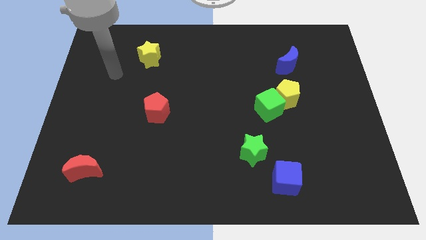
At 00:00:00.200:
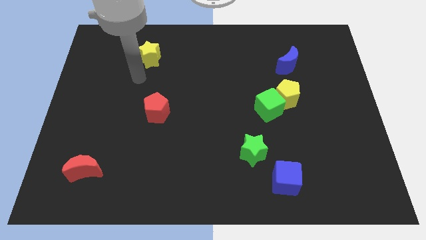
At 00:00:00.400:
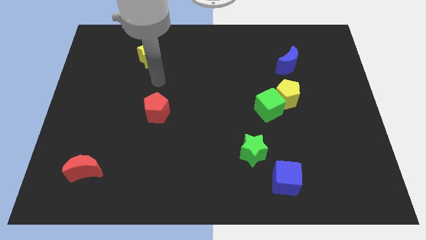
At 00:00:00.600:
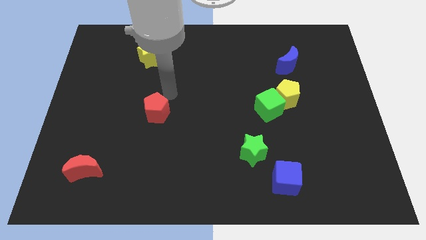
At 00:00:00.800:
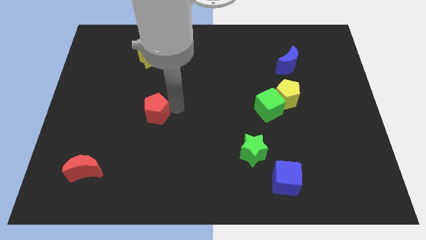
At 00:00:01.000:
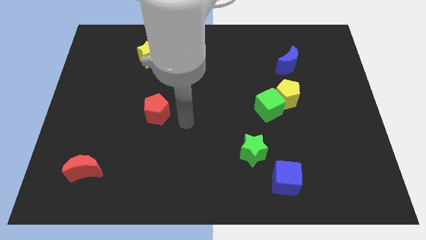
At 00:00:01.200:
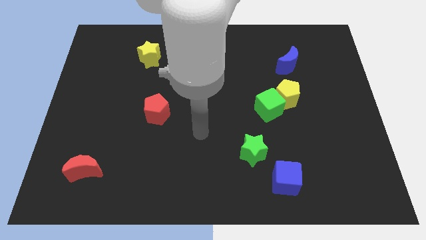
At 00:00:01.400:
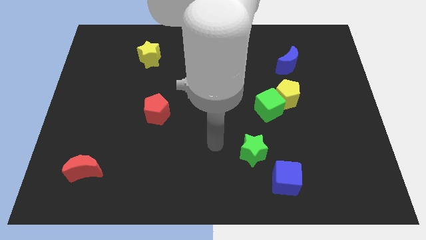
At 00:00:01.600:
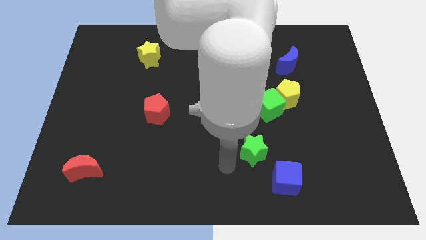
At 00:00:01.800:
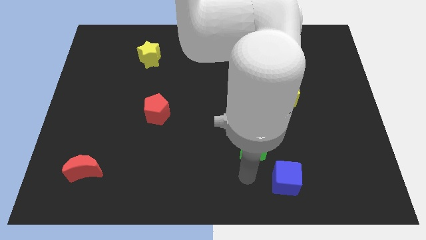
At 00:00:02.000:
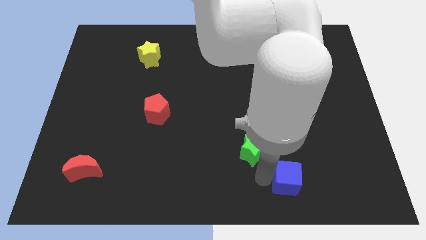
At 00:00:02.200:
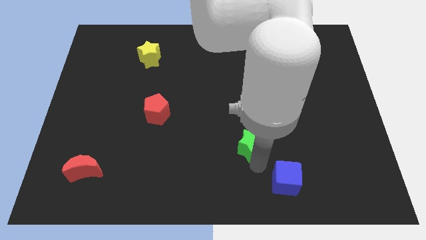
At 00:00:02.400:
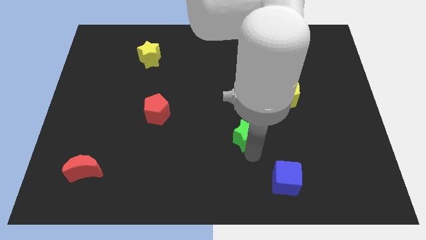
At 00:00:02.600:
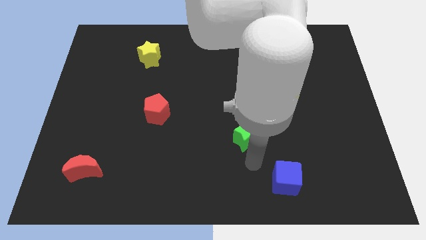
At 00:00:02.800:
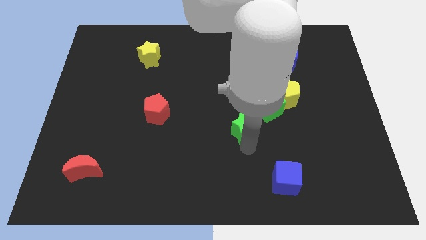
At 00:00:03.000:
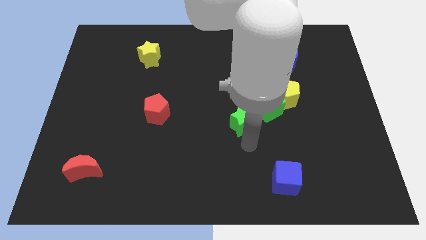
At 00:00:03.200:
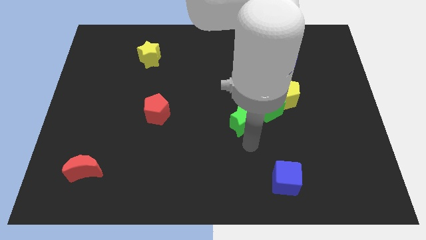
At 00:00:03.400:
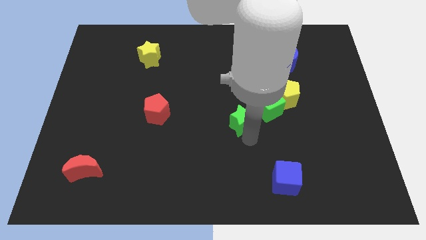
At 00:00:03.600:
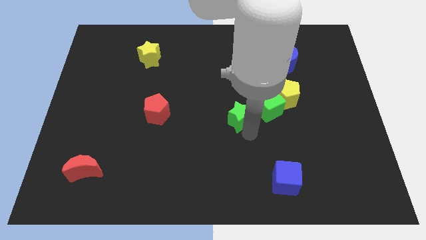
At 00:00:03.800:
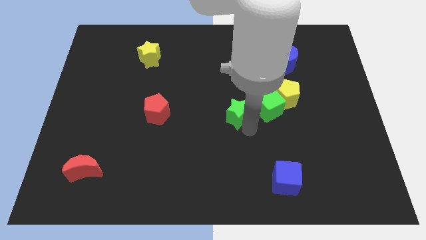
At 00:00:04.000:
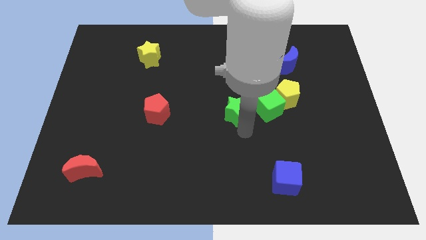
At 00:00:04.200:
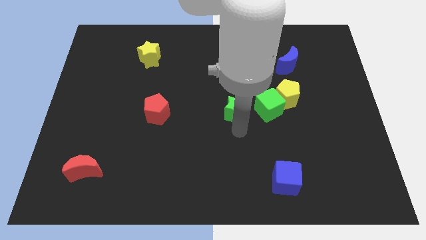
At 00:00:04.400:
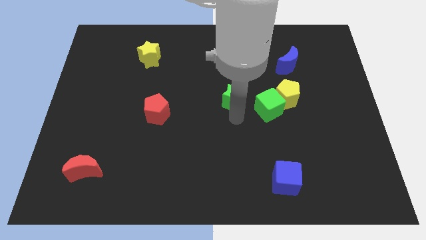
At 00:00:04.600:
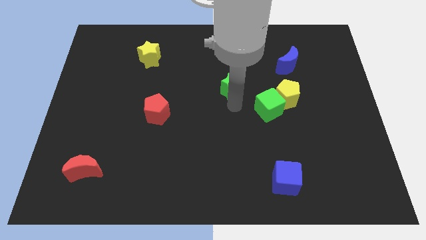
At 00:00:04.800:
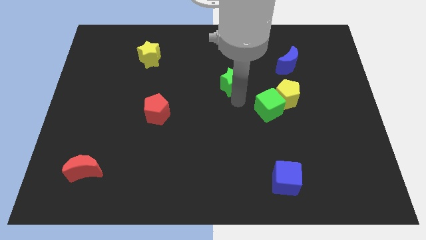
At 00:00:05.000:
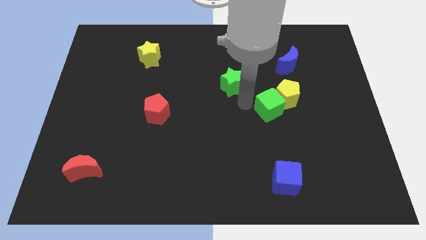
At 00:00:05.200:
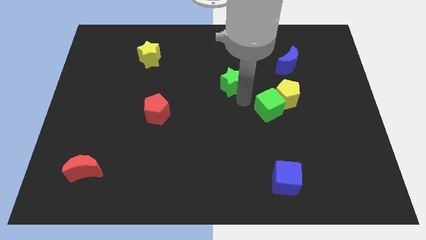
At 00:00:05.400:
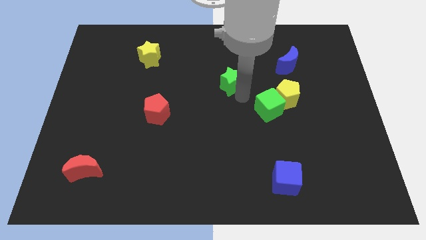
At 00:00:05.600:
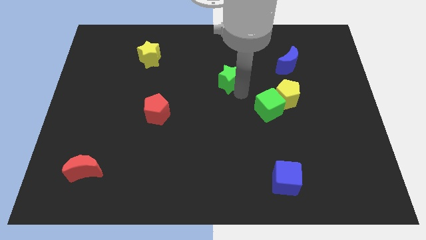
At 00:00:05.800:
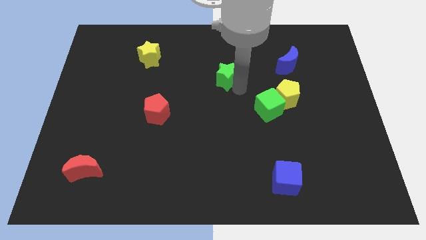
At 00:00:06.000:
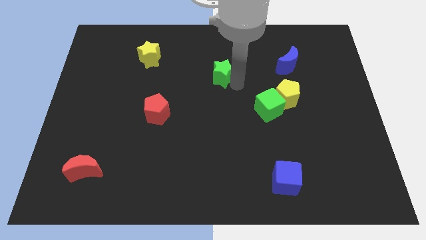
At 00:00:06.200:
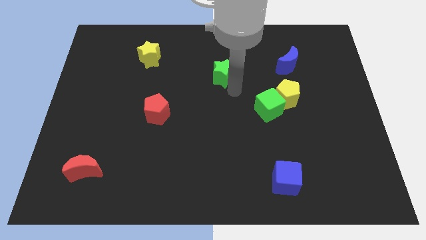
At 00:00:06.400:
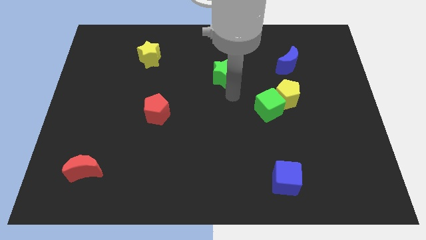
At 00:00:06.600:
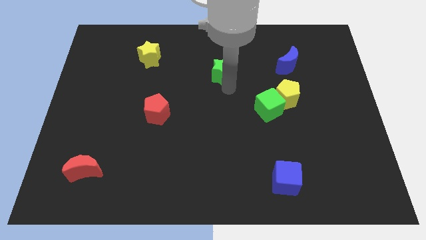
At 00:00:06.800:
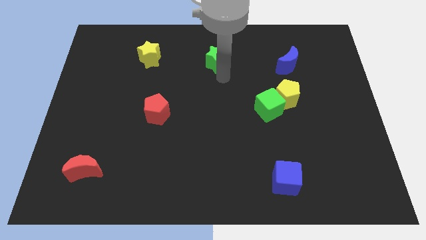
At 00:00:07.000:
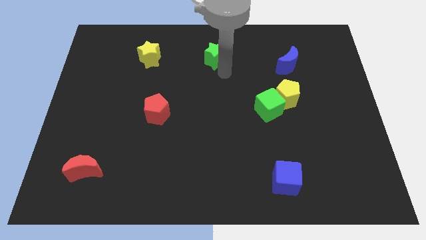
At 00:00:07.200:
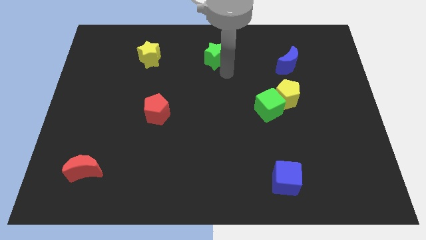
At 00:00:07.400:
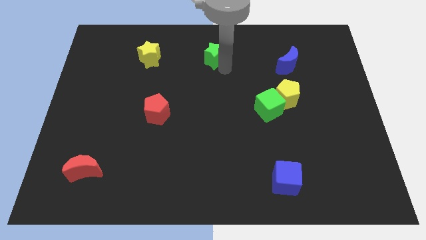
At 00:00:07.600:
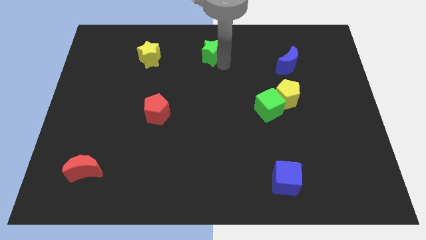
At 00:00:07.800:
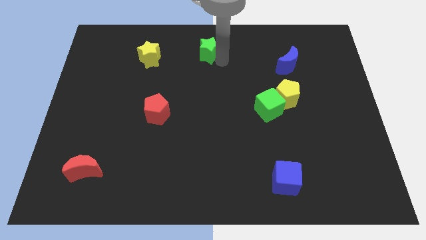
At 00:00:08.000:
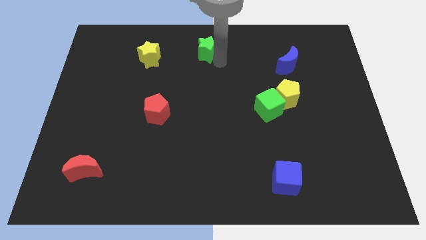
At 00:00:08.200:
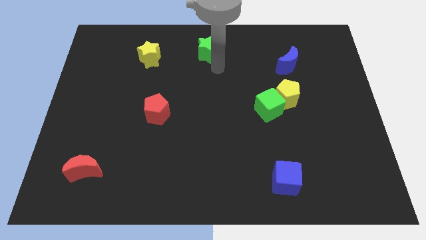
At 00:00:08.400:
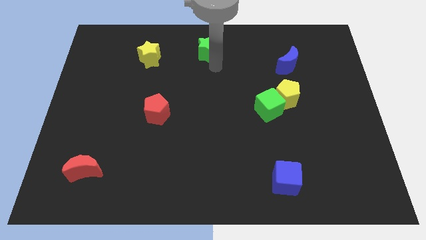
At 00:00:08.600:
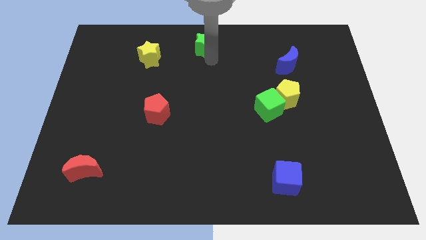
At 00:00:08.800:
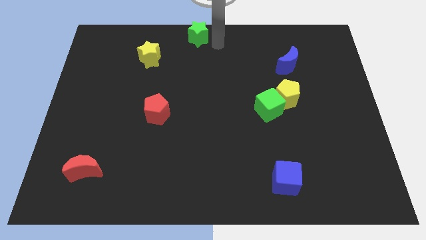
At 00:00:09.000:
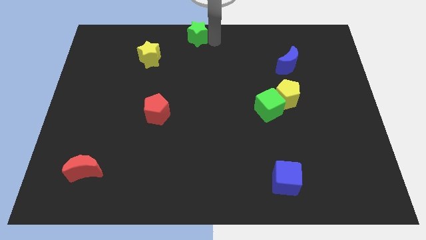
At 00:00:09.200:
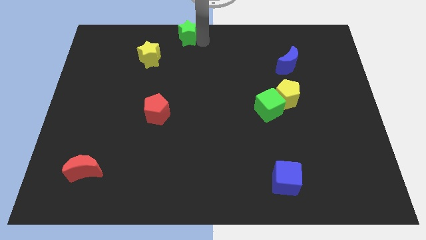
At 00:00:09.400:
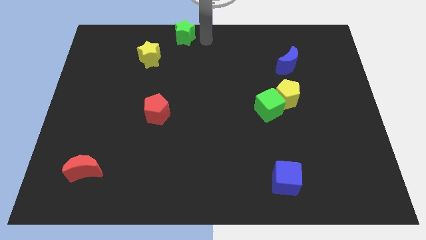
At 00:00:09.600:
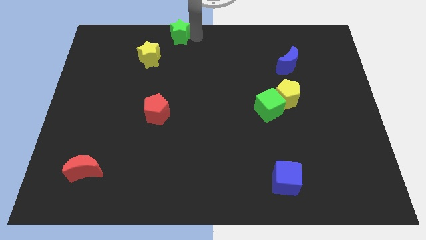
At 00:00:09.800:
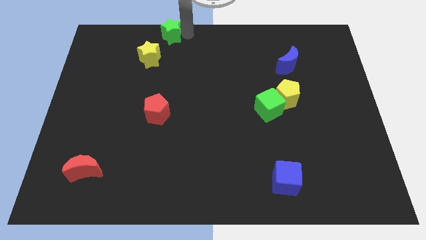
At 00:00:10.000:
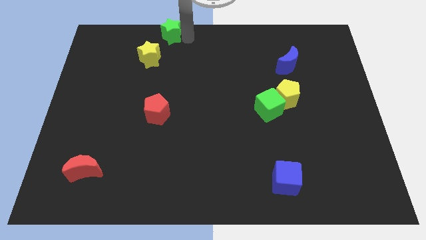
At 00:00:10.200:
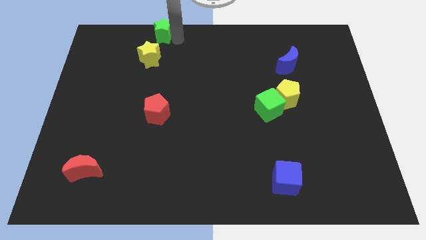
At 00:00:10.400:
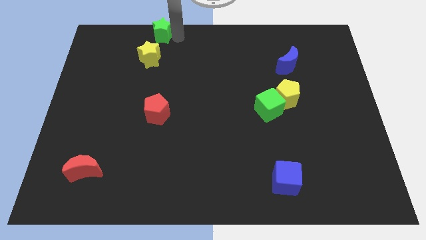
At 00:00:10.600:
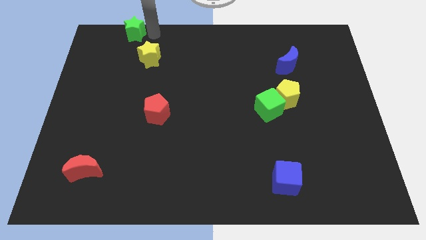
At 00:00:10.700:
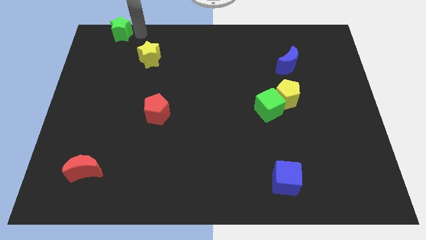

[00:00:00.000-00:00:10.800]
move the green star to the upper left corner

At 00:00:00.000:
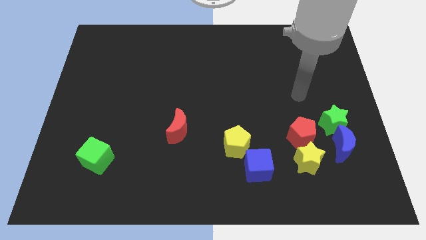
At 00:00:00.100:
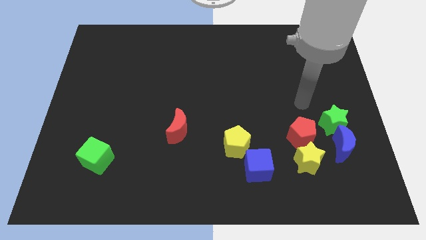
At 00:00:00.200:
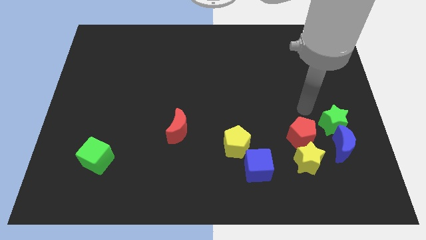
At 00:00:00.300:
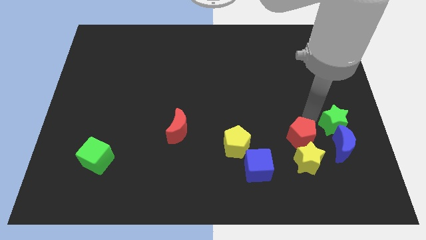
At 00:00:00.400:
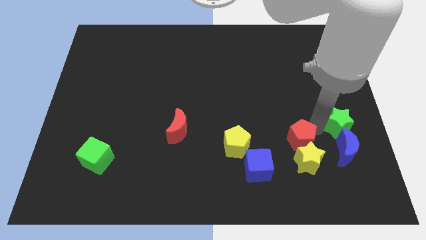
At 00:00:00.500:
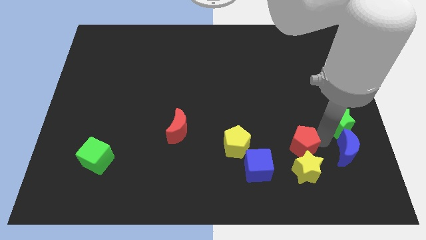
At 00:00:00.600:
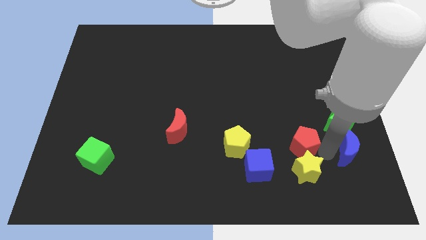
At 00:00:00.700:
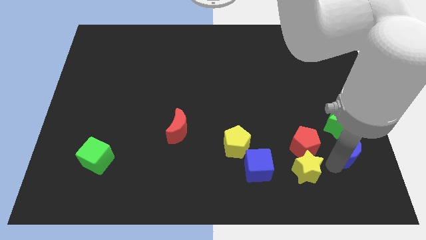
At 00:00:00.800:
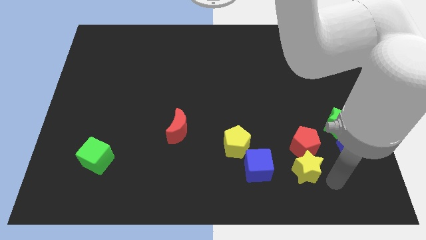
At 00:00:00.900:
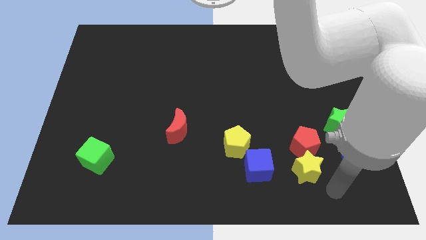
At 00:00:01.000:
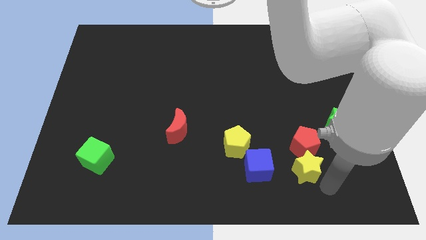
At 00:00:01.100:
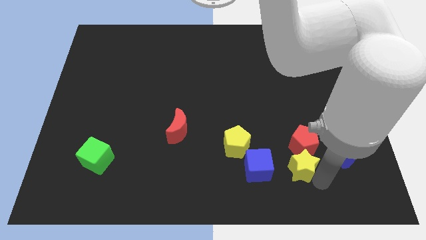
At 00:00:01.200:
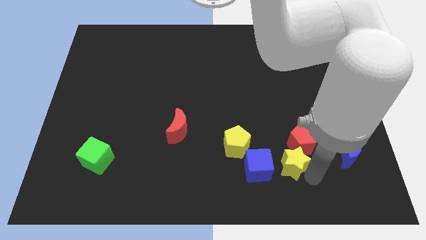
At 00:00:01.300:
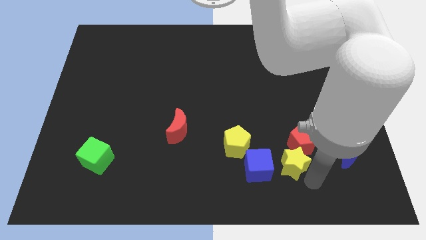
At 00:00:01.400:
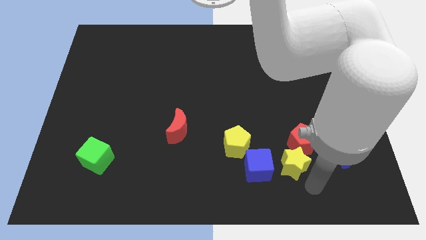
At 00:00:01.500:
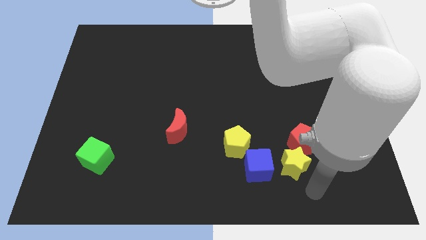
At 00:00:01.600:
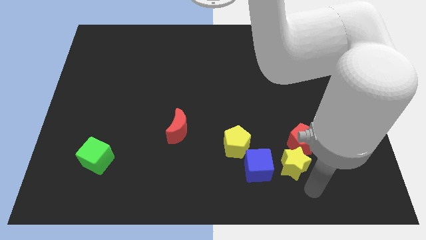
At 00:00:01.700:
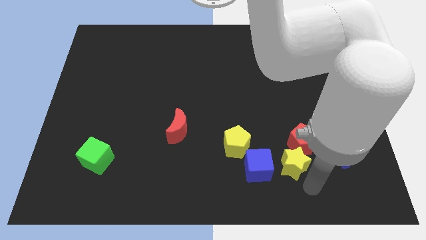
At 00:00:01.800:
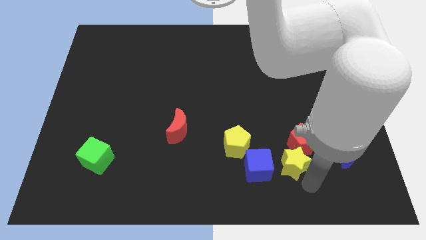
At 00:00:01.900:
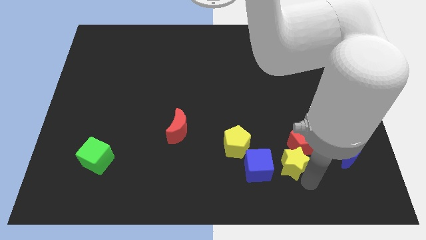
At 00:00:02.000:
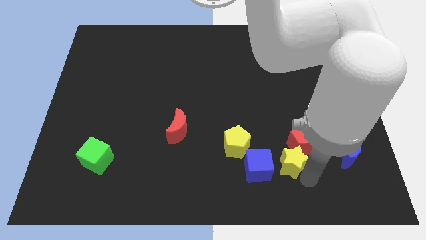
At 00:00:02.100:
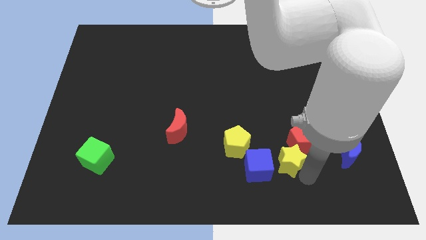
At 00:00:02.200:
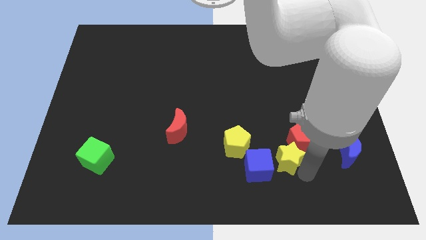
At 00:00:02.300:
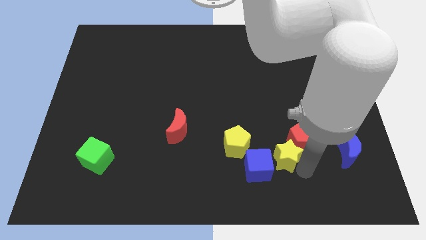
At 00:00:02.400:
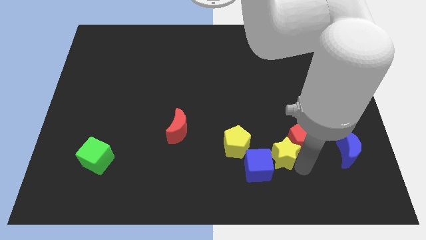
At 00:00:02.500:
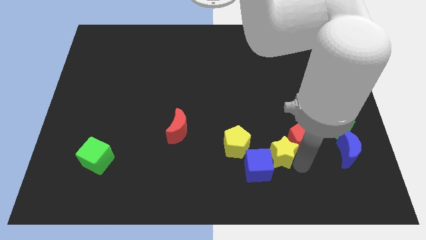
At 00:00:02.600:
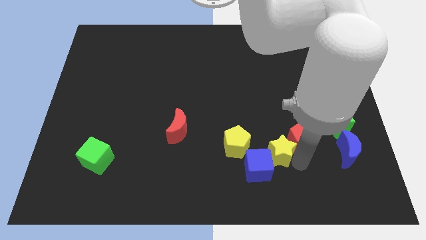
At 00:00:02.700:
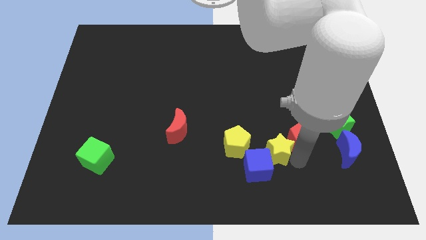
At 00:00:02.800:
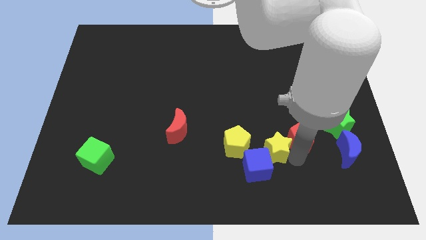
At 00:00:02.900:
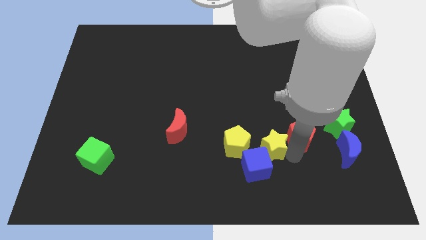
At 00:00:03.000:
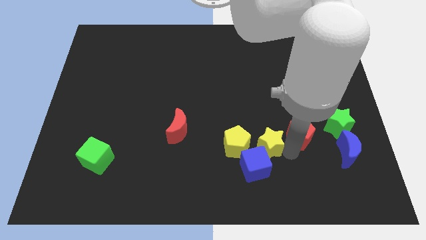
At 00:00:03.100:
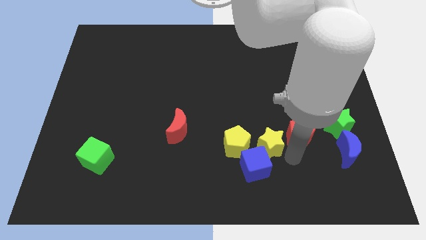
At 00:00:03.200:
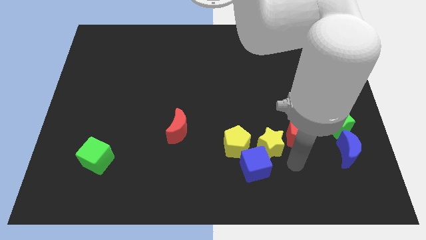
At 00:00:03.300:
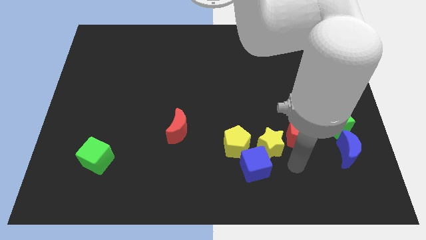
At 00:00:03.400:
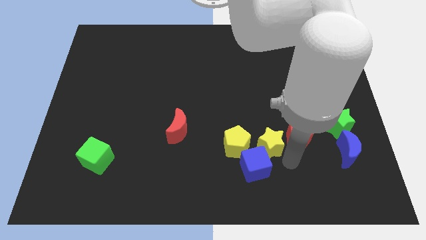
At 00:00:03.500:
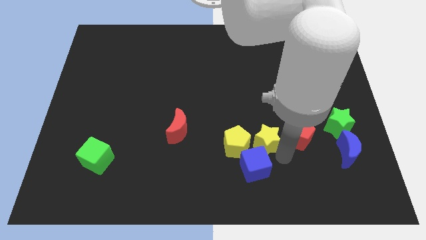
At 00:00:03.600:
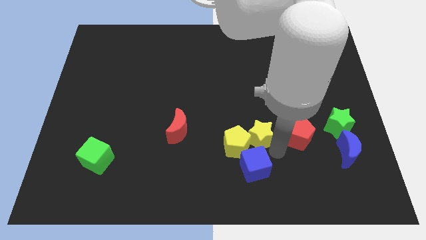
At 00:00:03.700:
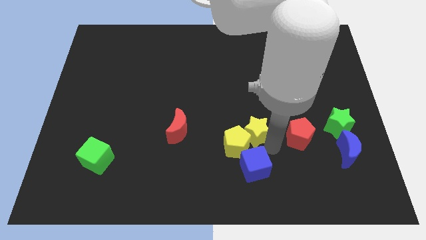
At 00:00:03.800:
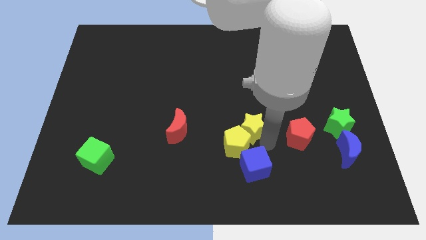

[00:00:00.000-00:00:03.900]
move the yellow star to the center
